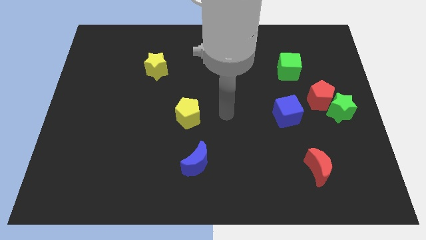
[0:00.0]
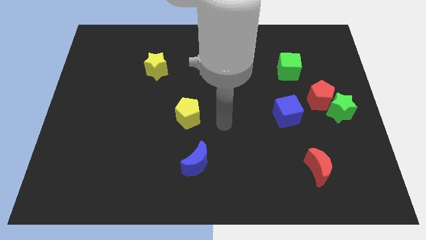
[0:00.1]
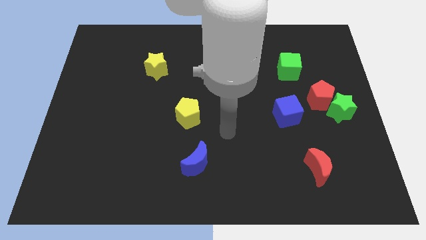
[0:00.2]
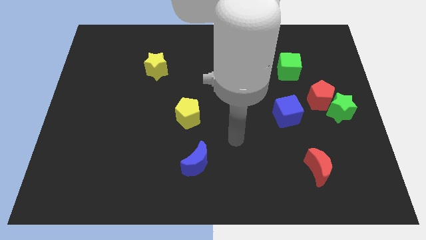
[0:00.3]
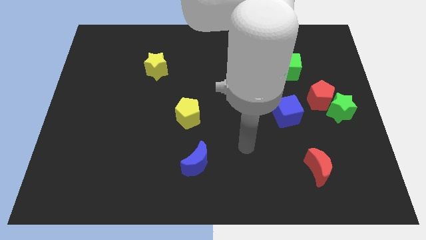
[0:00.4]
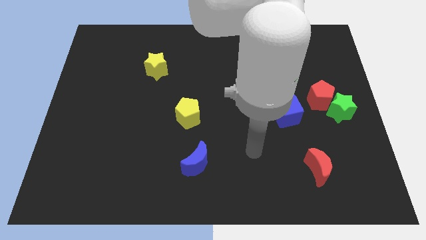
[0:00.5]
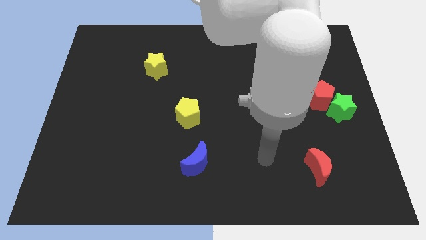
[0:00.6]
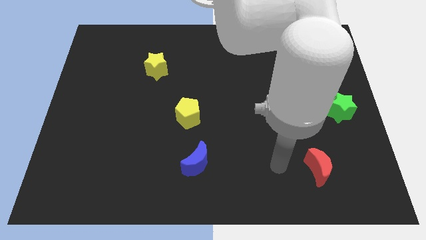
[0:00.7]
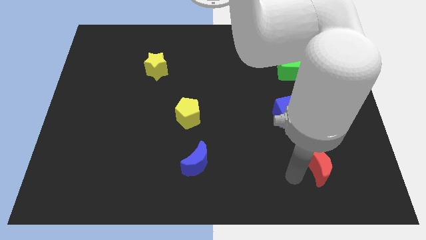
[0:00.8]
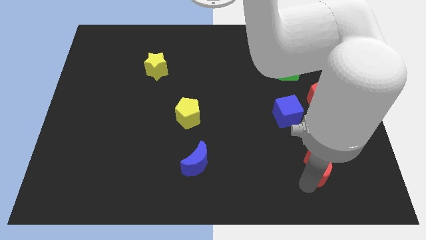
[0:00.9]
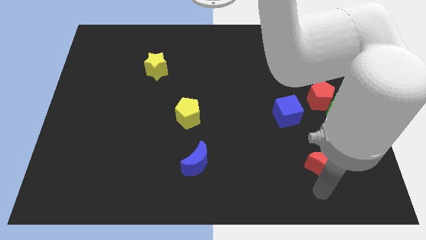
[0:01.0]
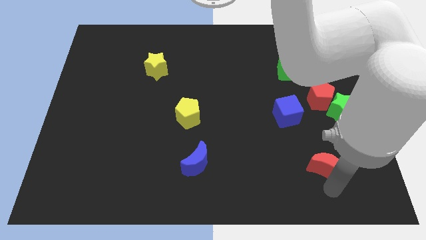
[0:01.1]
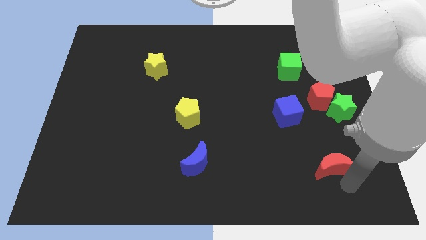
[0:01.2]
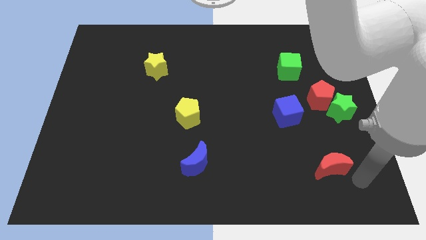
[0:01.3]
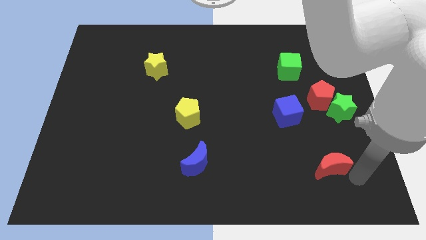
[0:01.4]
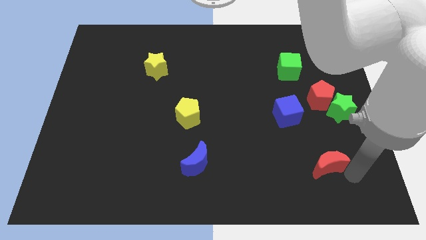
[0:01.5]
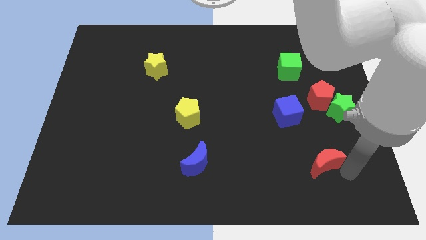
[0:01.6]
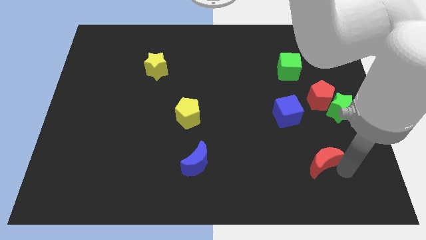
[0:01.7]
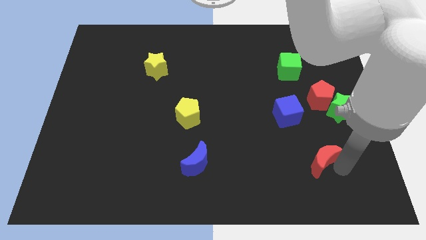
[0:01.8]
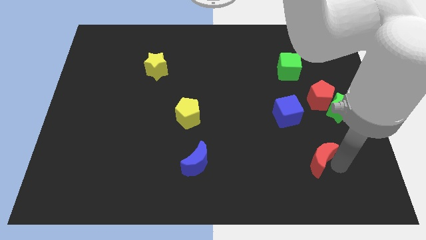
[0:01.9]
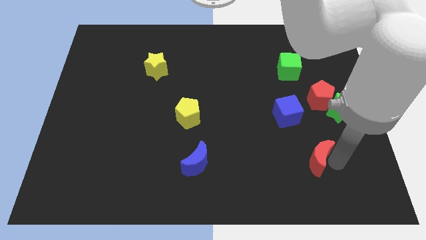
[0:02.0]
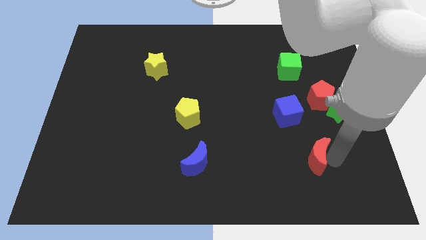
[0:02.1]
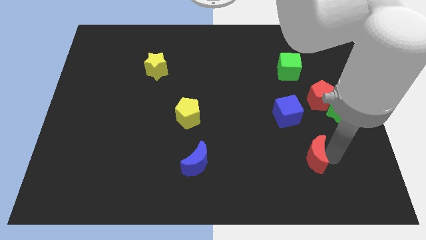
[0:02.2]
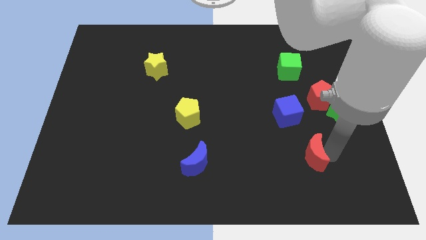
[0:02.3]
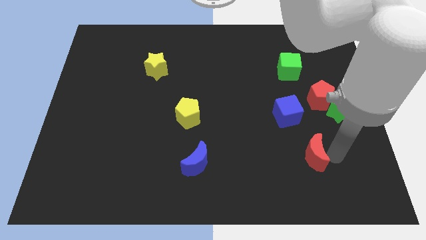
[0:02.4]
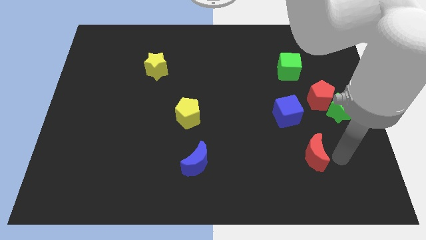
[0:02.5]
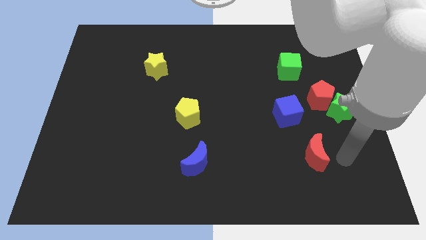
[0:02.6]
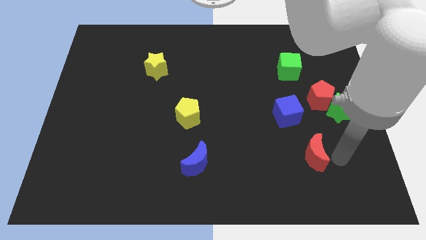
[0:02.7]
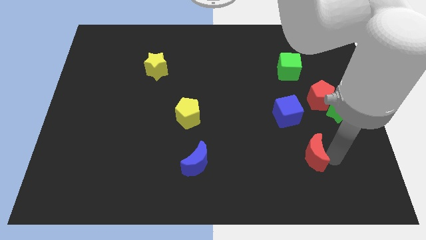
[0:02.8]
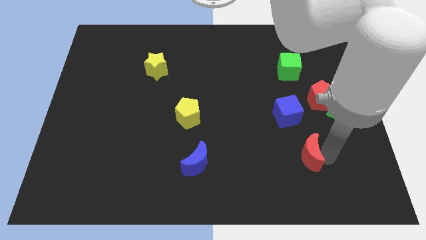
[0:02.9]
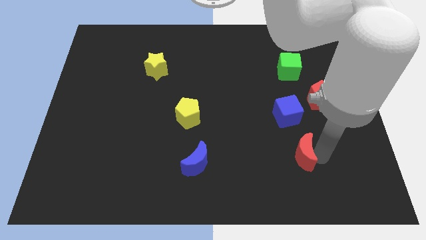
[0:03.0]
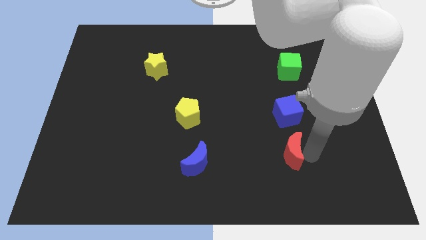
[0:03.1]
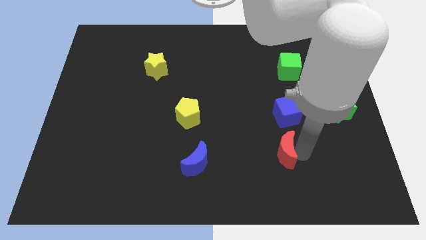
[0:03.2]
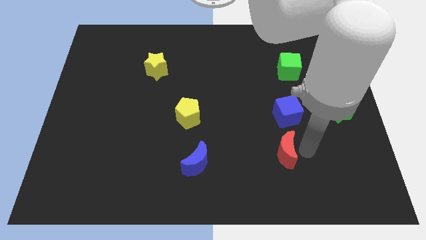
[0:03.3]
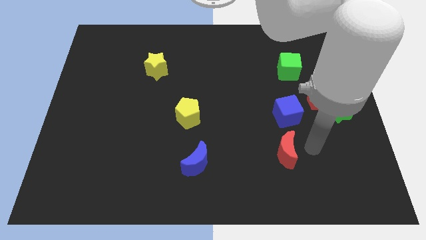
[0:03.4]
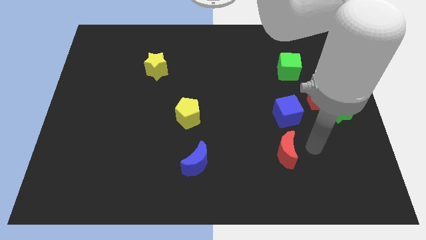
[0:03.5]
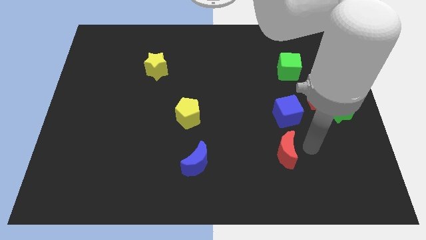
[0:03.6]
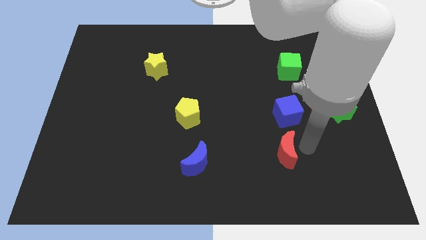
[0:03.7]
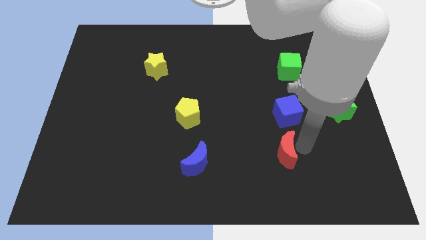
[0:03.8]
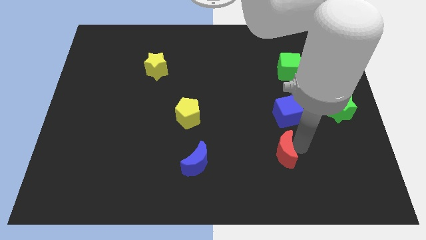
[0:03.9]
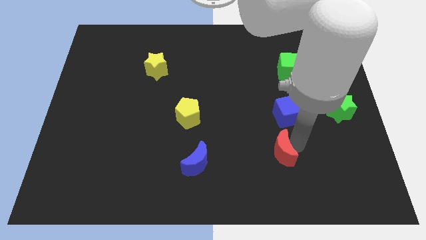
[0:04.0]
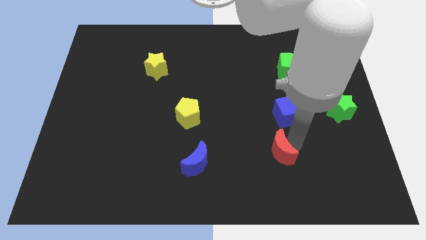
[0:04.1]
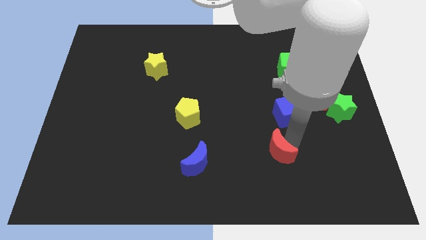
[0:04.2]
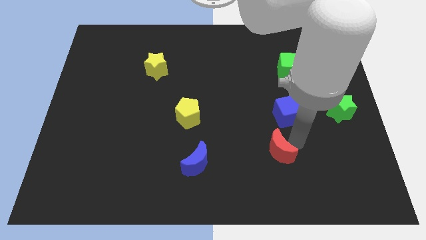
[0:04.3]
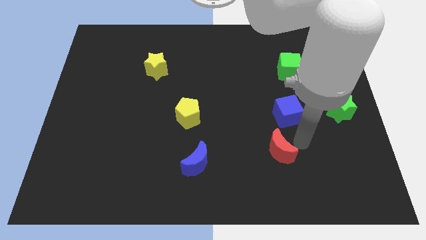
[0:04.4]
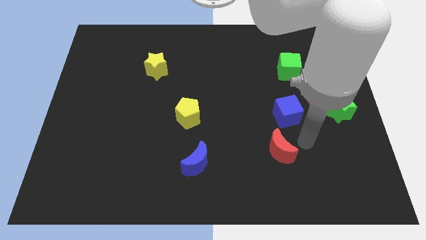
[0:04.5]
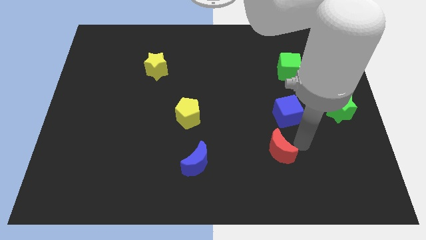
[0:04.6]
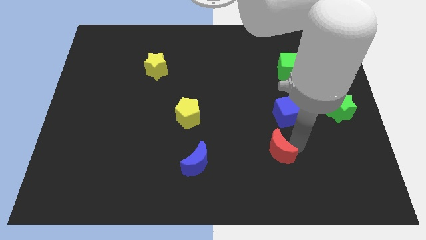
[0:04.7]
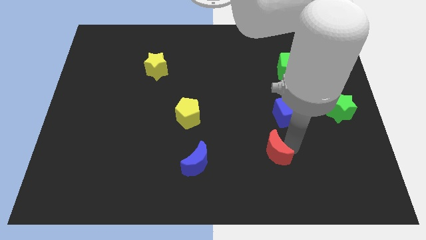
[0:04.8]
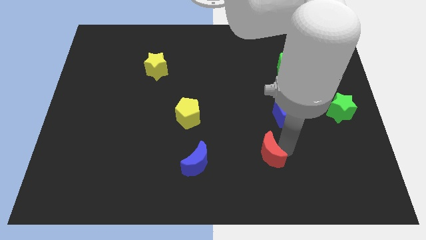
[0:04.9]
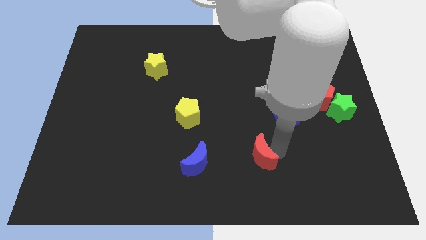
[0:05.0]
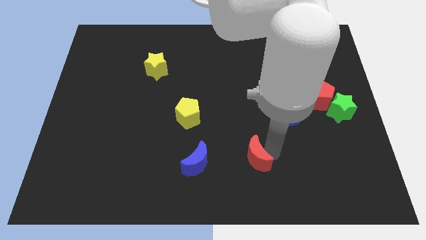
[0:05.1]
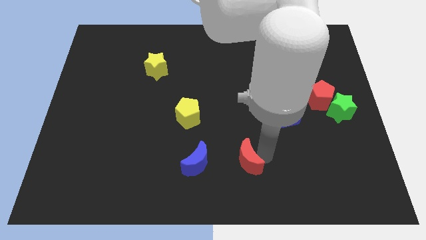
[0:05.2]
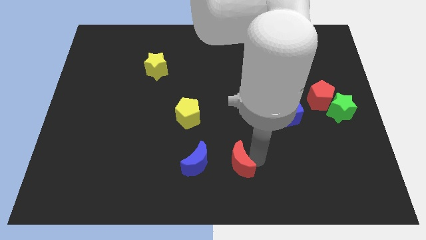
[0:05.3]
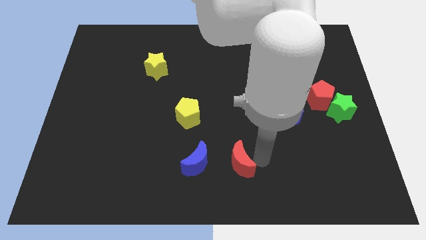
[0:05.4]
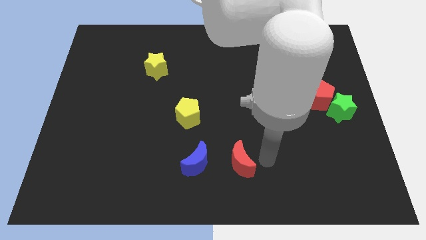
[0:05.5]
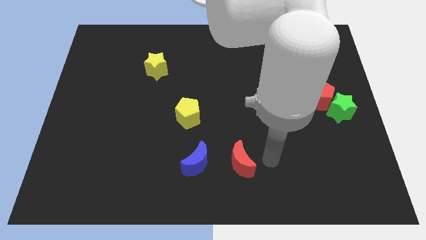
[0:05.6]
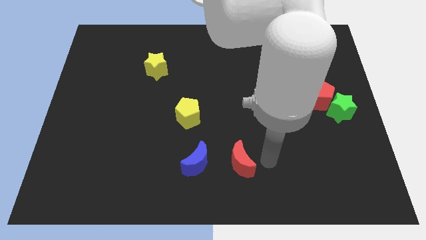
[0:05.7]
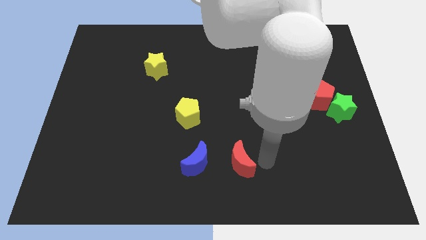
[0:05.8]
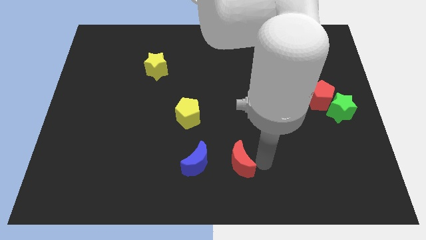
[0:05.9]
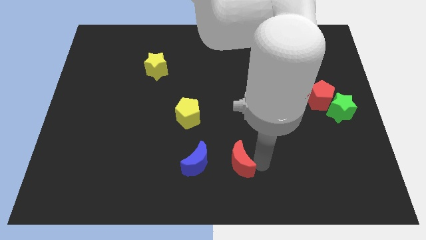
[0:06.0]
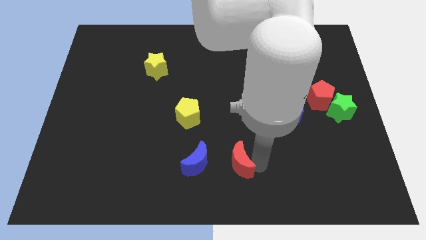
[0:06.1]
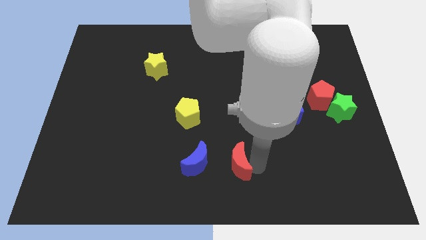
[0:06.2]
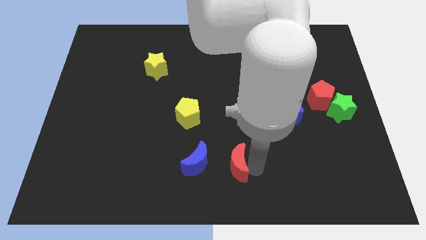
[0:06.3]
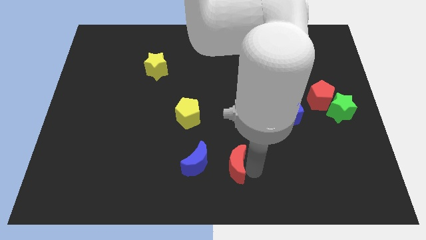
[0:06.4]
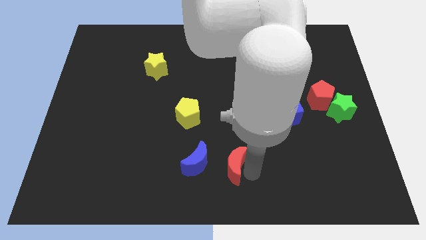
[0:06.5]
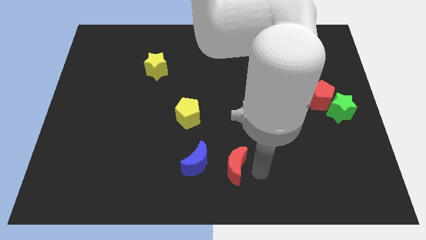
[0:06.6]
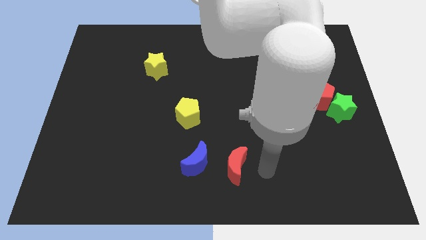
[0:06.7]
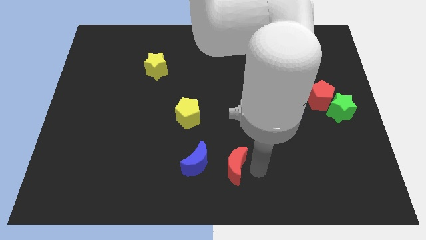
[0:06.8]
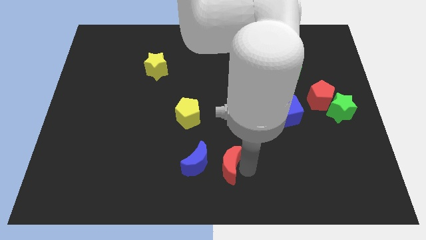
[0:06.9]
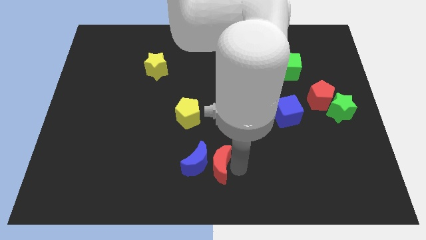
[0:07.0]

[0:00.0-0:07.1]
put the red moon towards the blue moon
